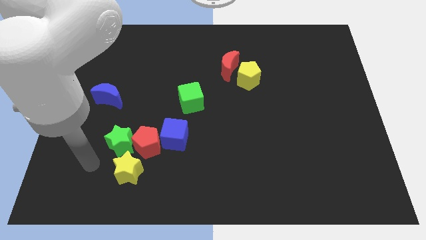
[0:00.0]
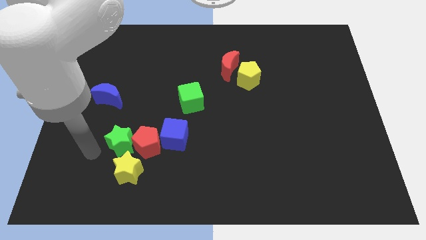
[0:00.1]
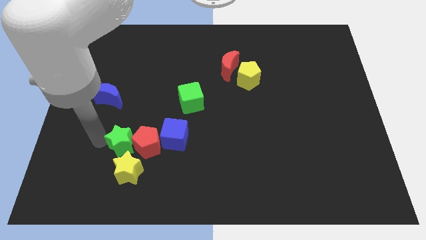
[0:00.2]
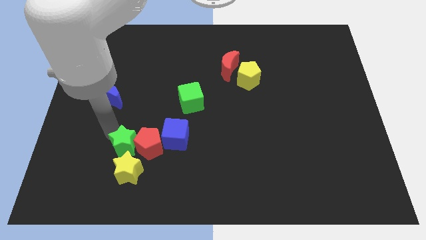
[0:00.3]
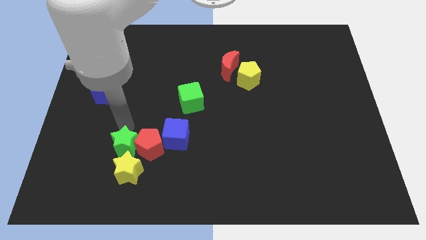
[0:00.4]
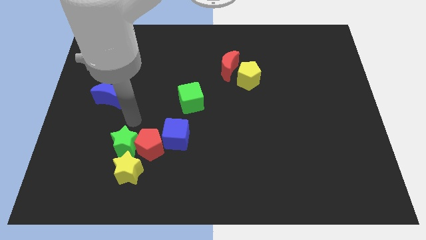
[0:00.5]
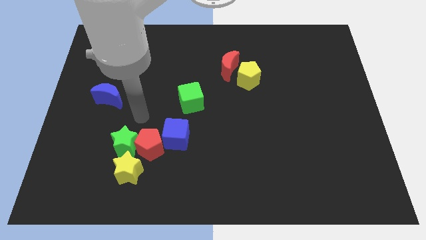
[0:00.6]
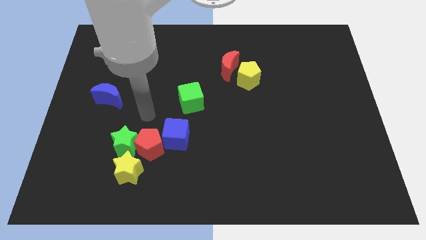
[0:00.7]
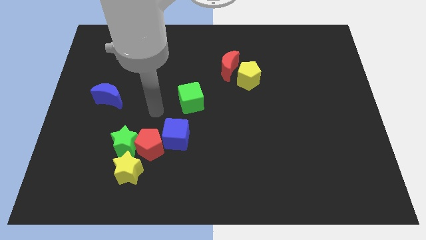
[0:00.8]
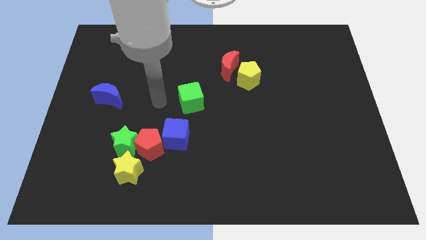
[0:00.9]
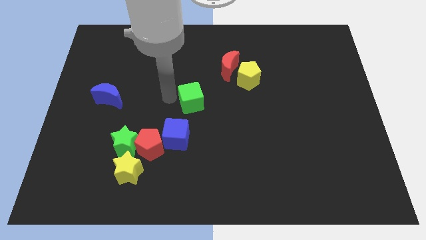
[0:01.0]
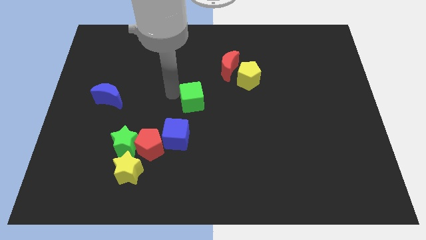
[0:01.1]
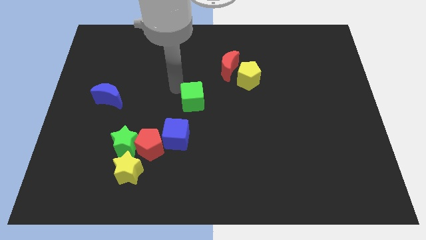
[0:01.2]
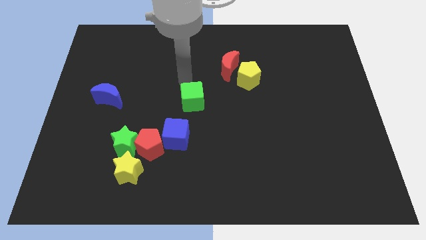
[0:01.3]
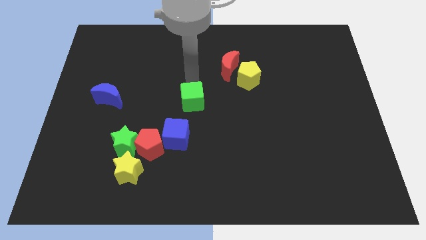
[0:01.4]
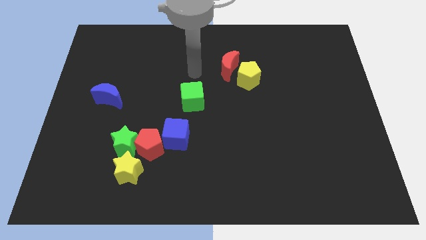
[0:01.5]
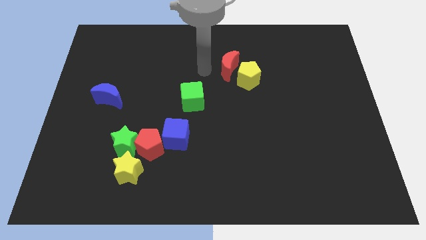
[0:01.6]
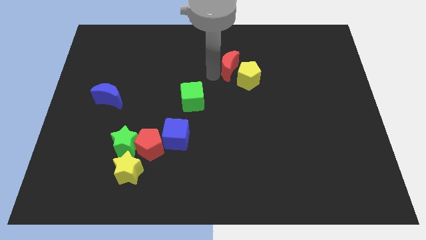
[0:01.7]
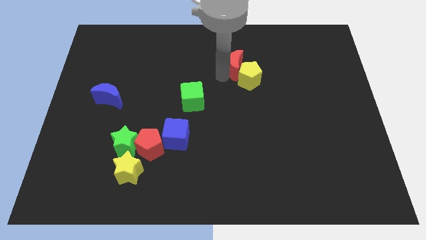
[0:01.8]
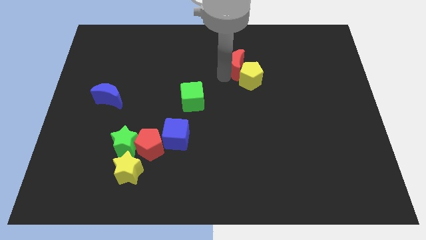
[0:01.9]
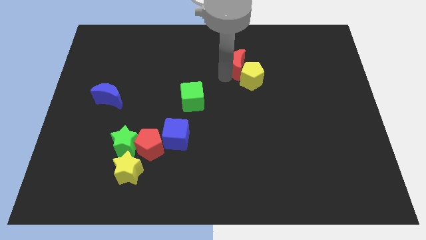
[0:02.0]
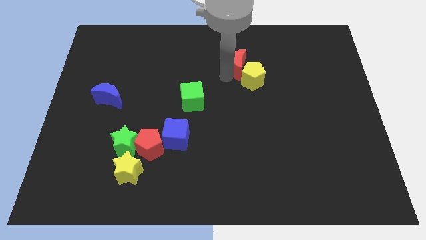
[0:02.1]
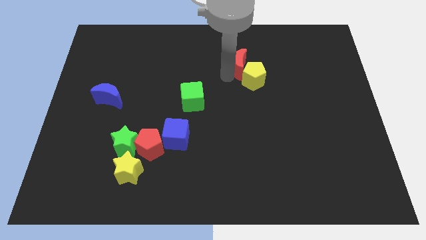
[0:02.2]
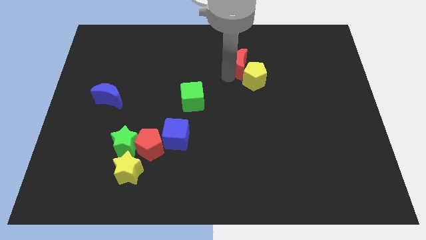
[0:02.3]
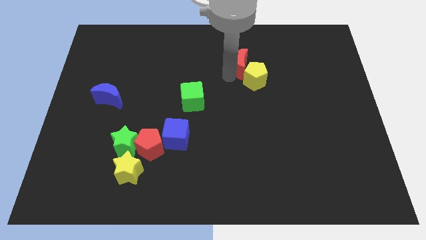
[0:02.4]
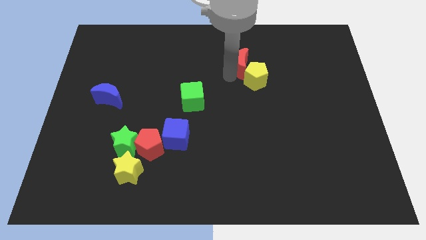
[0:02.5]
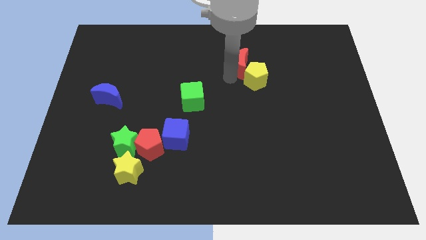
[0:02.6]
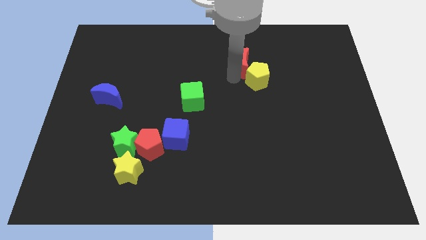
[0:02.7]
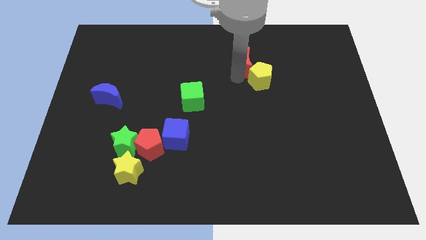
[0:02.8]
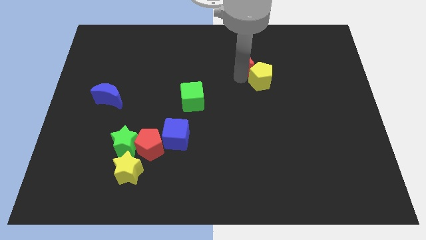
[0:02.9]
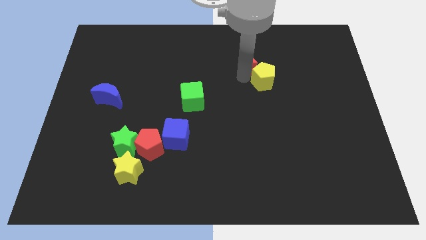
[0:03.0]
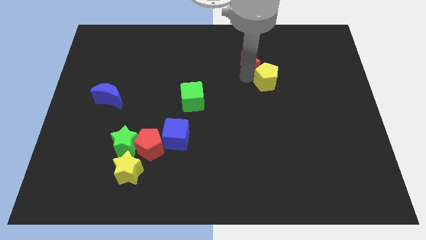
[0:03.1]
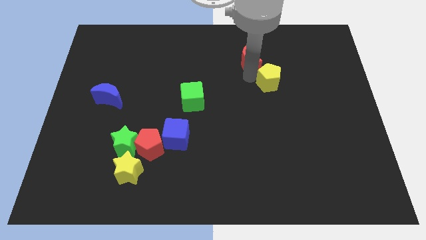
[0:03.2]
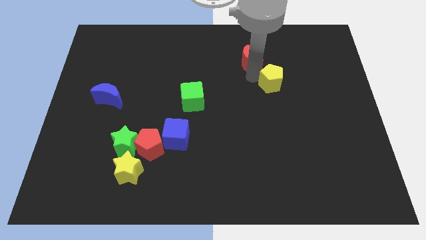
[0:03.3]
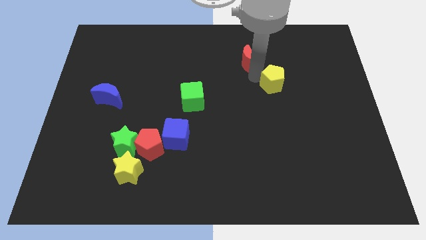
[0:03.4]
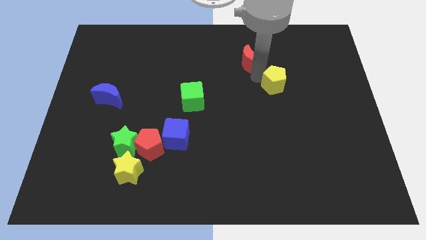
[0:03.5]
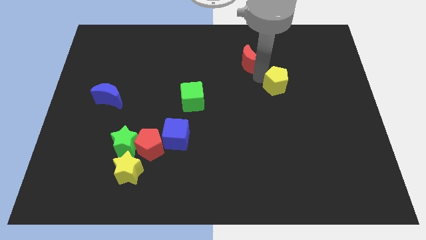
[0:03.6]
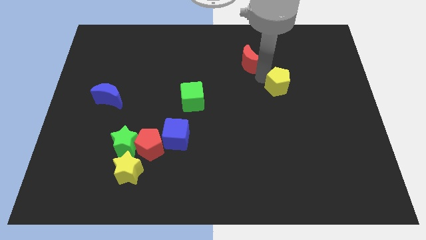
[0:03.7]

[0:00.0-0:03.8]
slightly move the yellow pentagon right

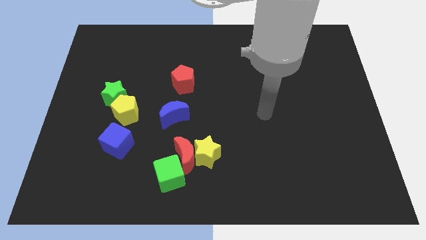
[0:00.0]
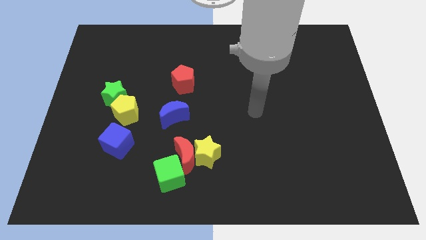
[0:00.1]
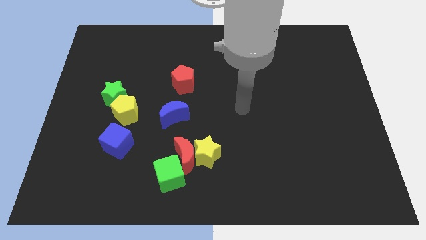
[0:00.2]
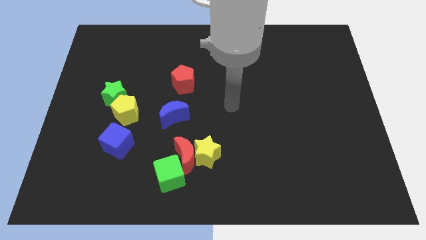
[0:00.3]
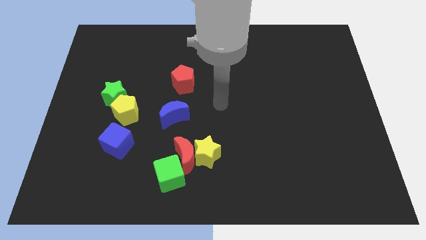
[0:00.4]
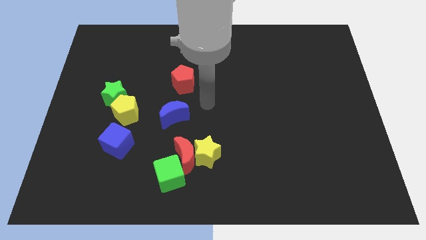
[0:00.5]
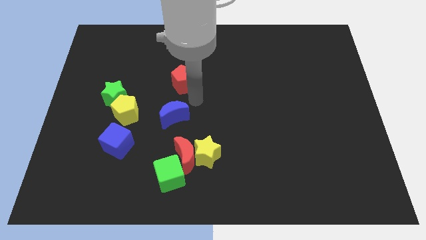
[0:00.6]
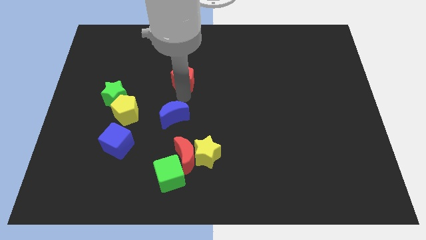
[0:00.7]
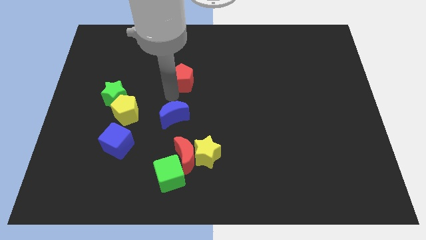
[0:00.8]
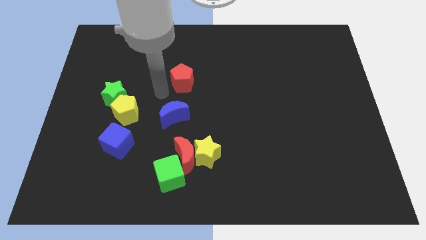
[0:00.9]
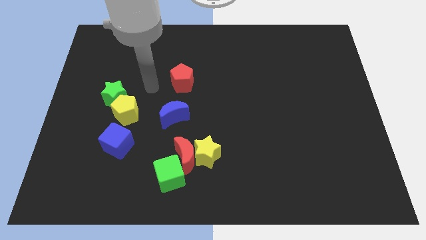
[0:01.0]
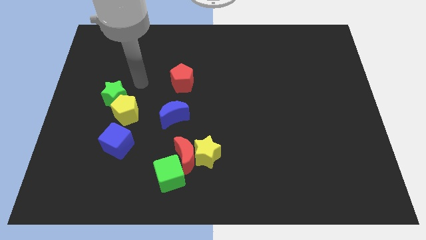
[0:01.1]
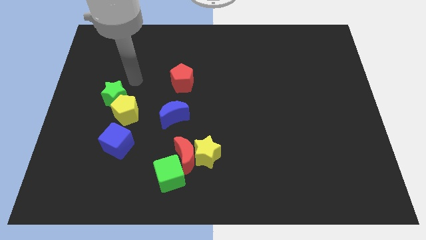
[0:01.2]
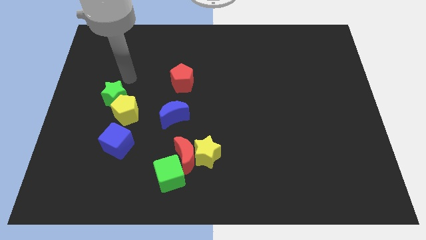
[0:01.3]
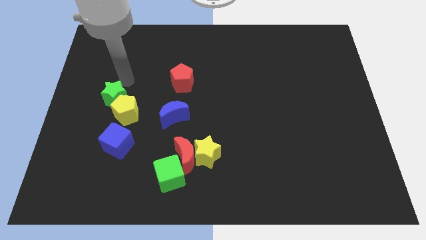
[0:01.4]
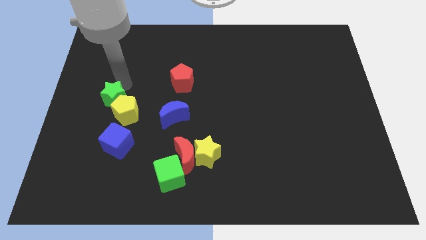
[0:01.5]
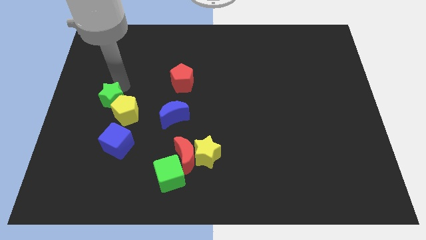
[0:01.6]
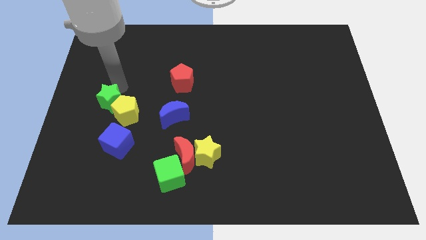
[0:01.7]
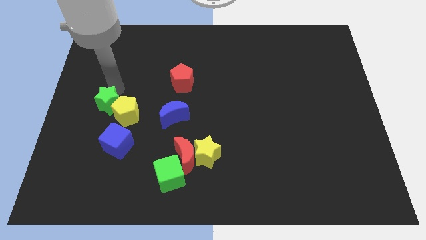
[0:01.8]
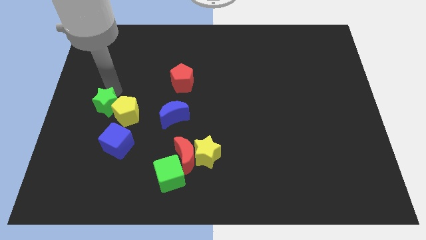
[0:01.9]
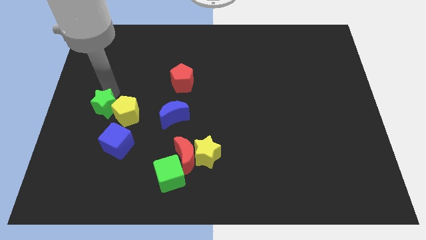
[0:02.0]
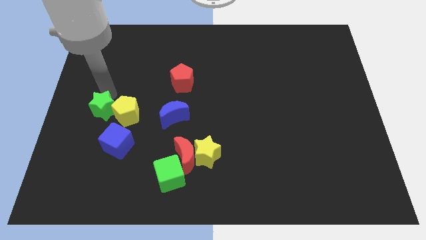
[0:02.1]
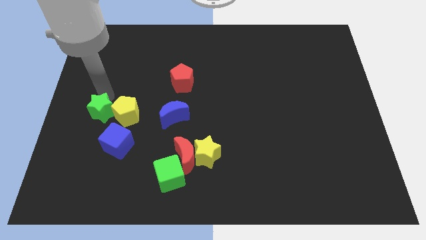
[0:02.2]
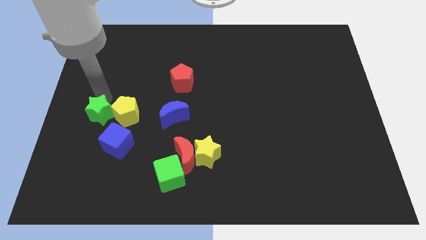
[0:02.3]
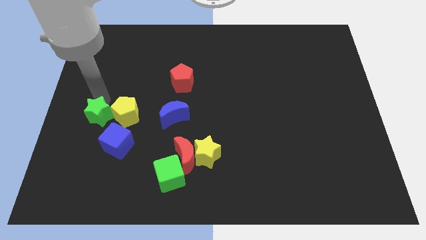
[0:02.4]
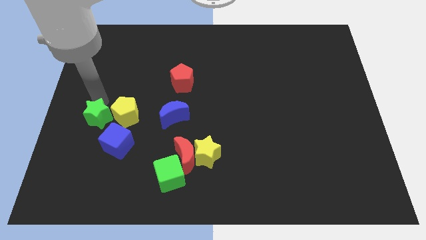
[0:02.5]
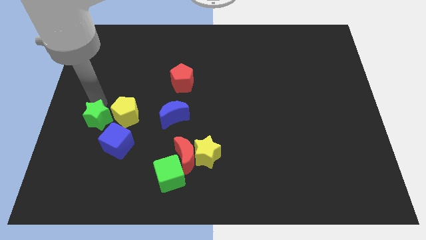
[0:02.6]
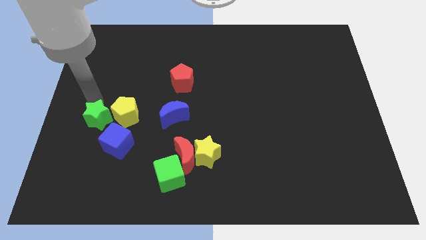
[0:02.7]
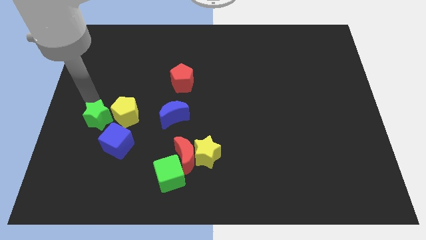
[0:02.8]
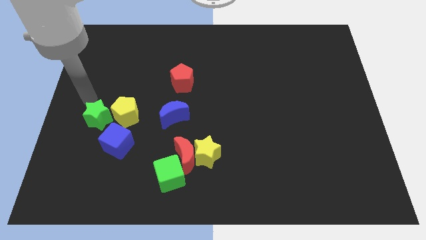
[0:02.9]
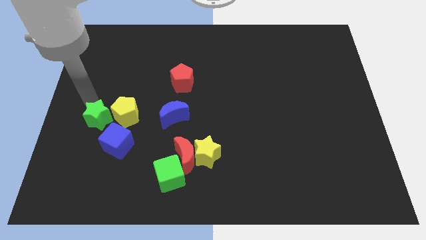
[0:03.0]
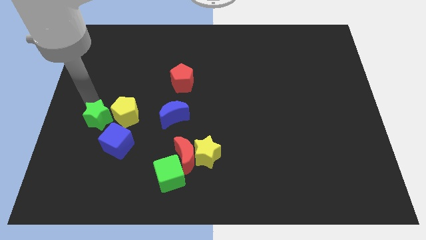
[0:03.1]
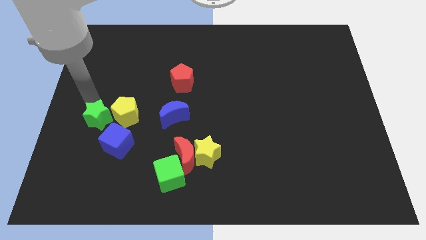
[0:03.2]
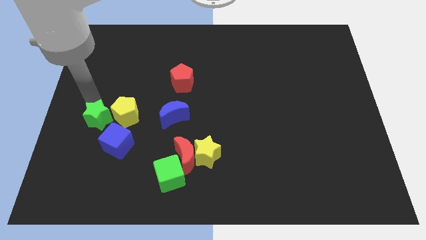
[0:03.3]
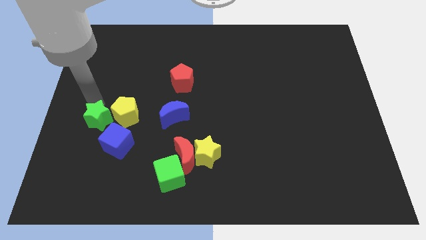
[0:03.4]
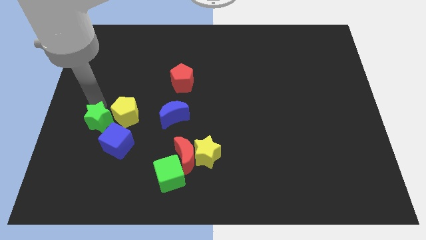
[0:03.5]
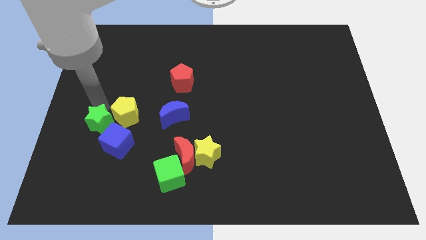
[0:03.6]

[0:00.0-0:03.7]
slide the green star downwards somewhat

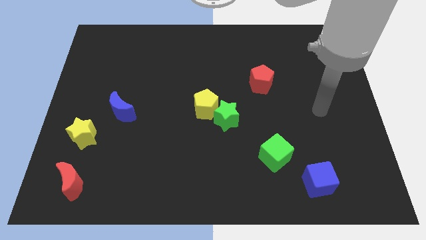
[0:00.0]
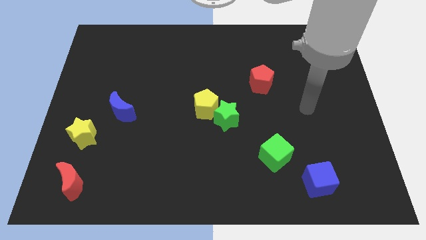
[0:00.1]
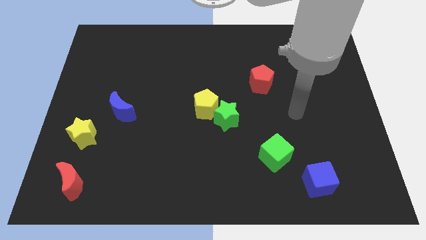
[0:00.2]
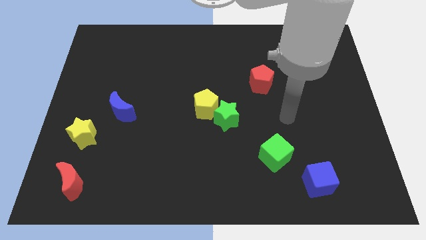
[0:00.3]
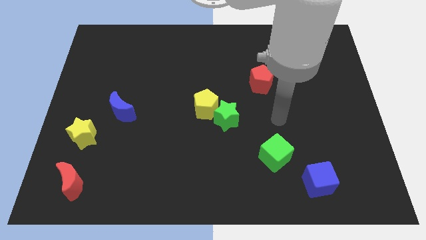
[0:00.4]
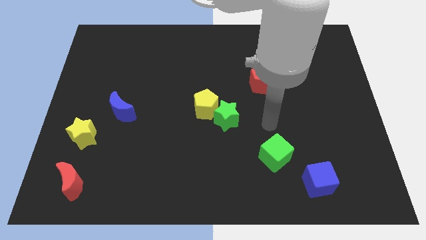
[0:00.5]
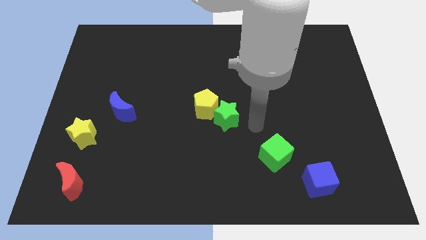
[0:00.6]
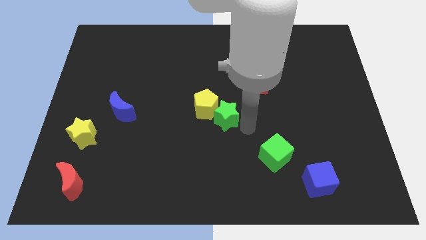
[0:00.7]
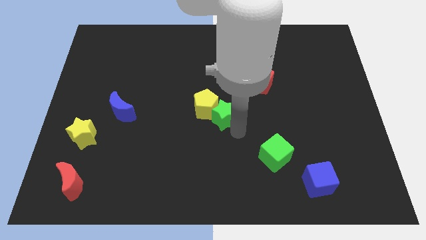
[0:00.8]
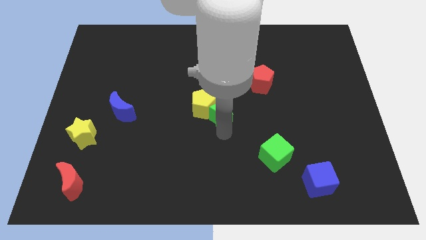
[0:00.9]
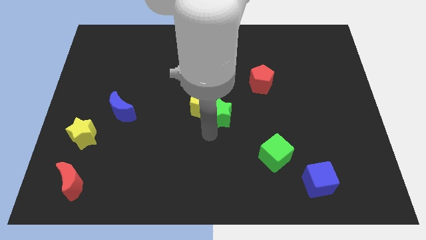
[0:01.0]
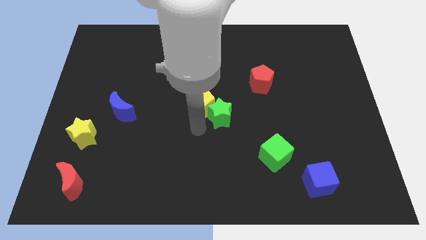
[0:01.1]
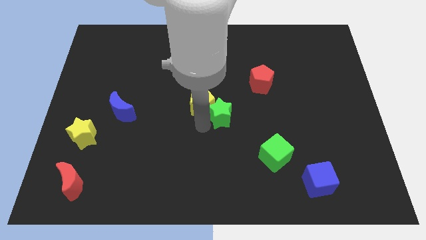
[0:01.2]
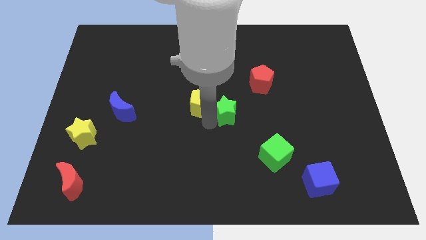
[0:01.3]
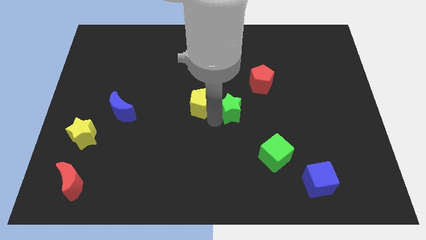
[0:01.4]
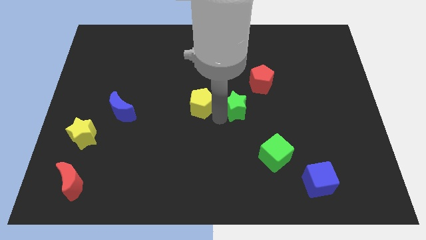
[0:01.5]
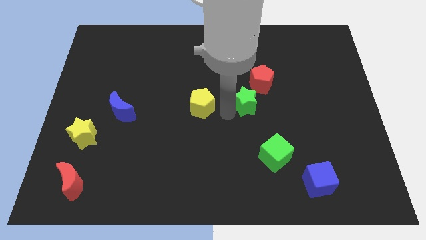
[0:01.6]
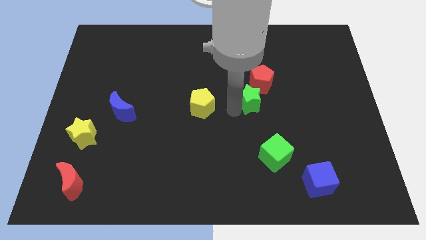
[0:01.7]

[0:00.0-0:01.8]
move the green star up and then to the right a bit
